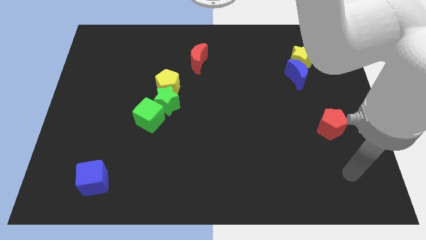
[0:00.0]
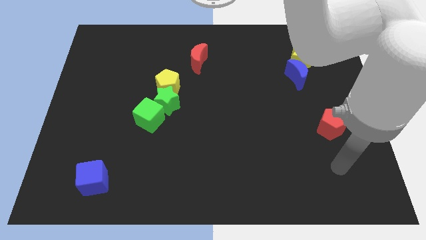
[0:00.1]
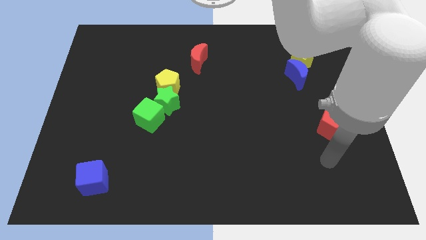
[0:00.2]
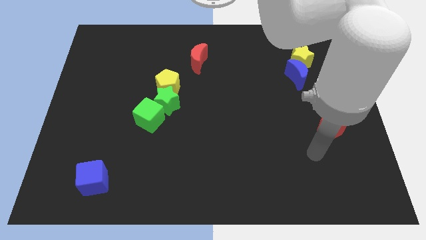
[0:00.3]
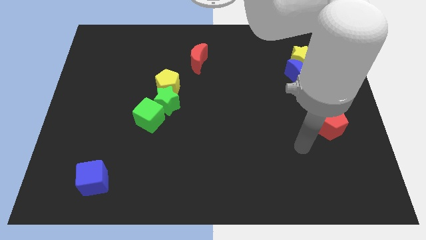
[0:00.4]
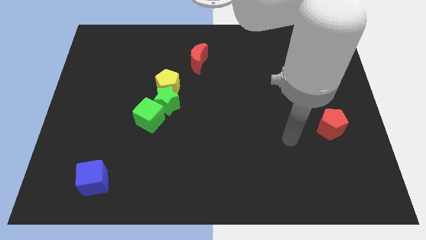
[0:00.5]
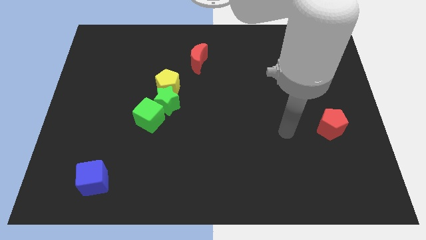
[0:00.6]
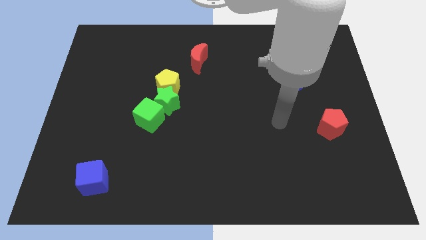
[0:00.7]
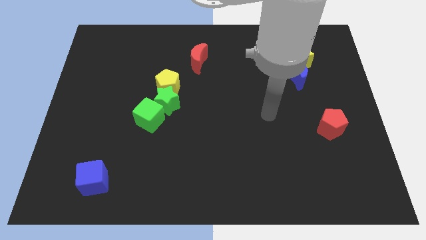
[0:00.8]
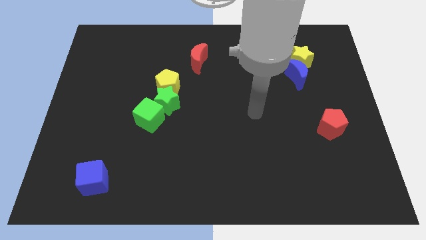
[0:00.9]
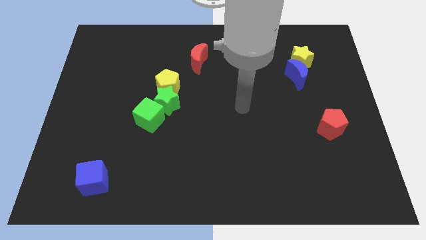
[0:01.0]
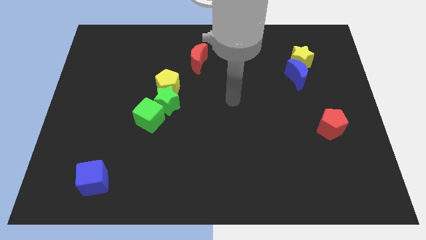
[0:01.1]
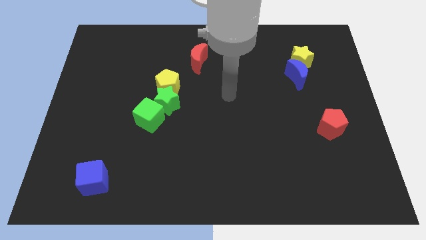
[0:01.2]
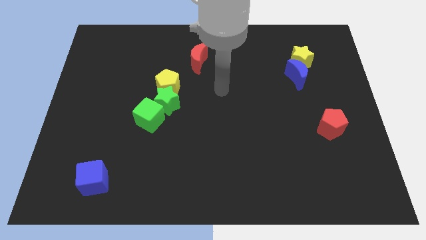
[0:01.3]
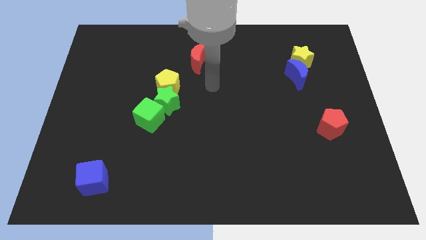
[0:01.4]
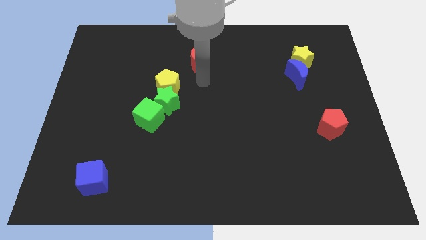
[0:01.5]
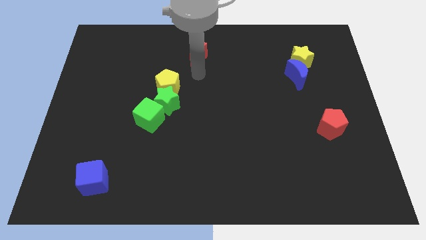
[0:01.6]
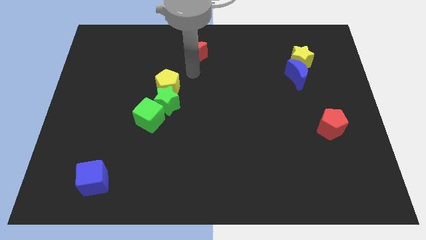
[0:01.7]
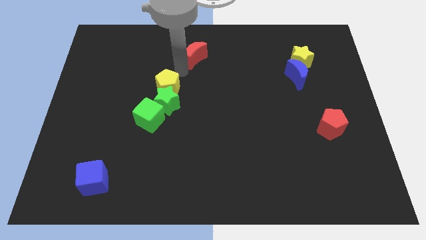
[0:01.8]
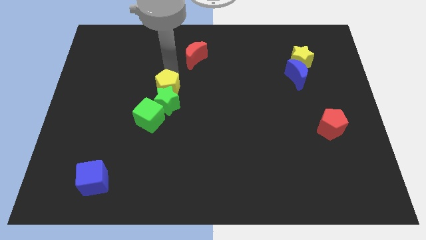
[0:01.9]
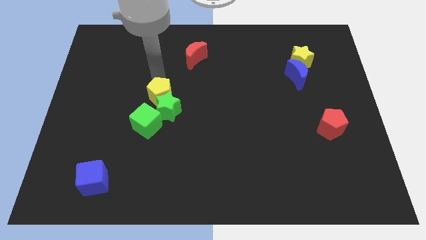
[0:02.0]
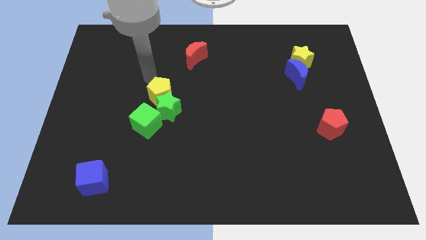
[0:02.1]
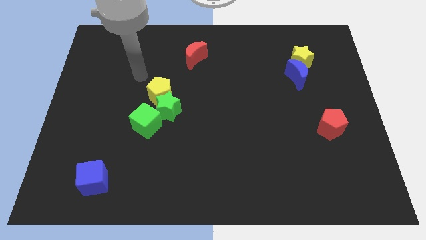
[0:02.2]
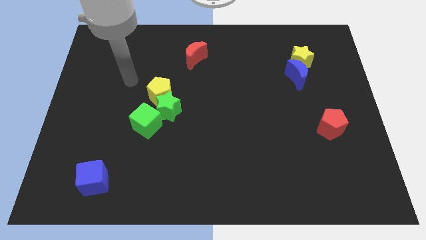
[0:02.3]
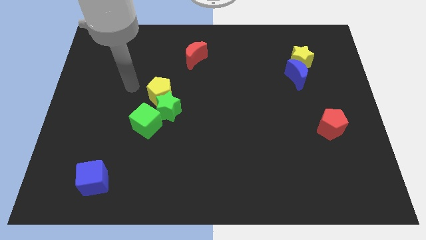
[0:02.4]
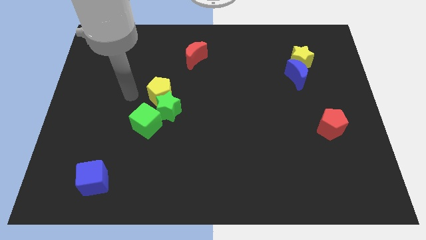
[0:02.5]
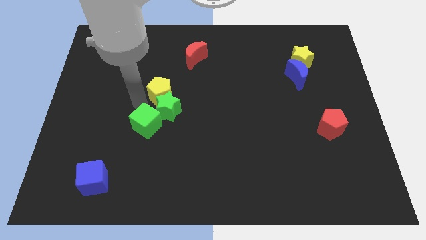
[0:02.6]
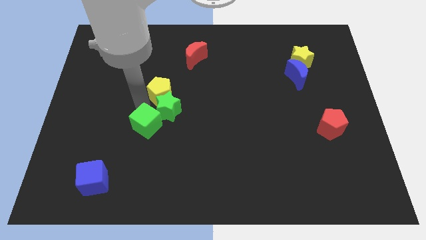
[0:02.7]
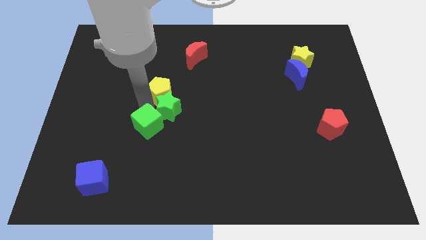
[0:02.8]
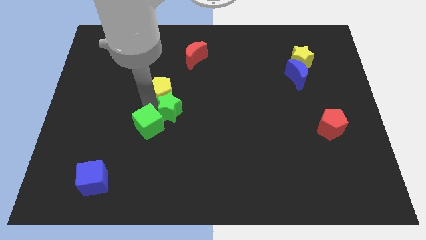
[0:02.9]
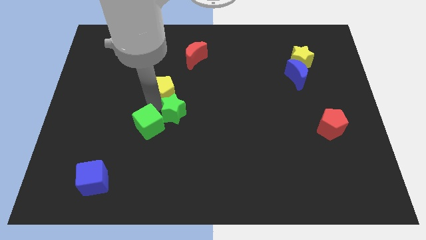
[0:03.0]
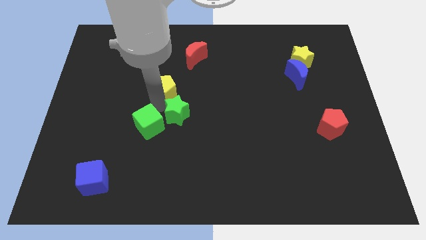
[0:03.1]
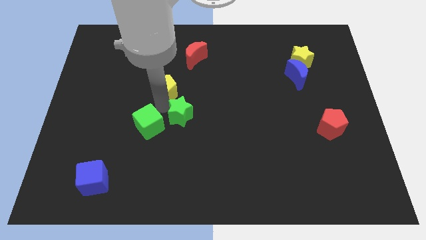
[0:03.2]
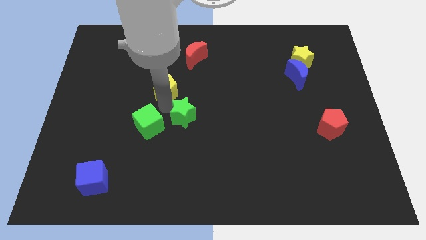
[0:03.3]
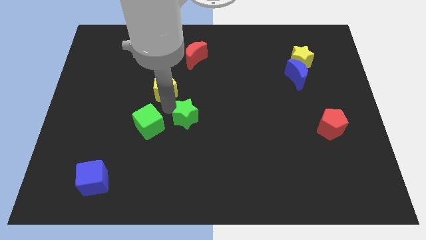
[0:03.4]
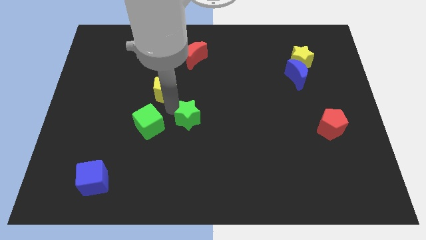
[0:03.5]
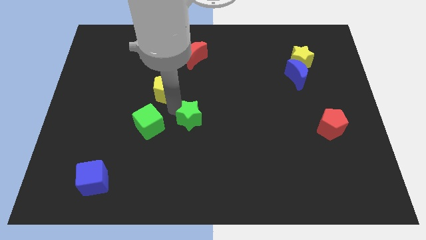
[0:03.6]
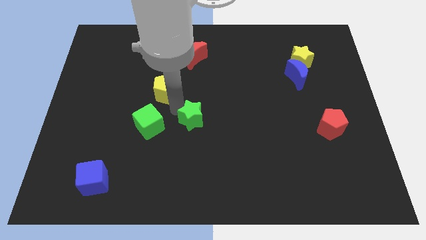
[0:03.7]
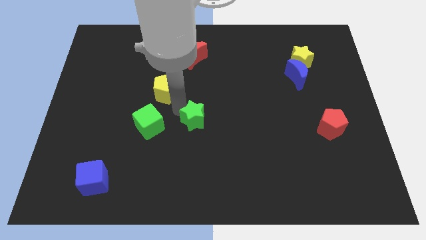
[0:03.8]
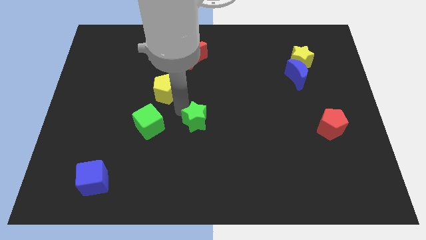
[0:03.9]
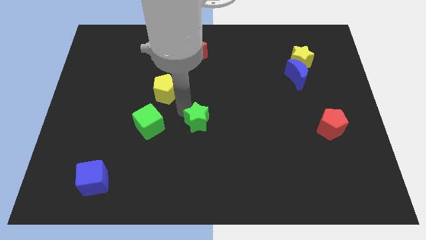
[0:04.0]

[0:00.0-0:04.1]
pull the green star apart from the green cube and yellow pentagon

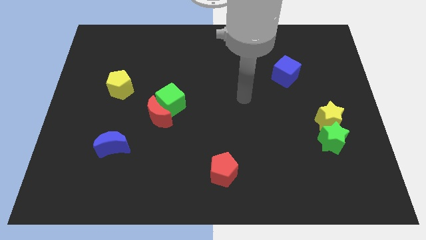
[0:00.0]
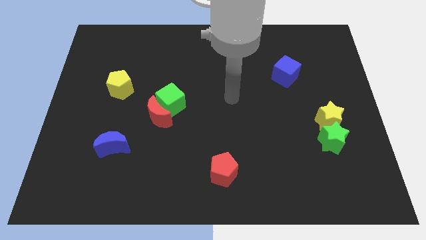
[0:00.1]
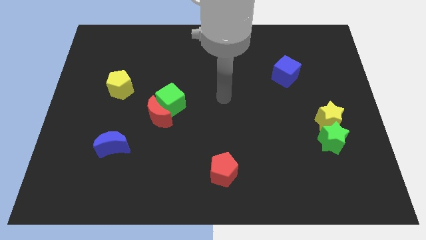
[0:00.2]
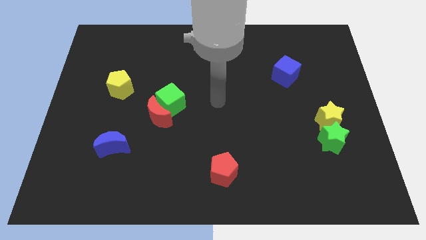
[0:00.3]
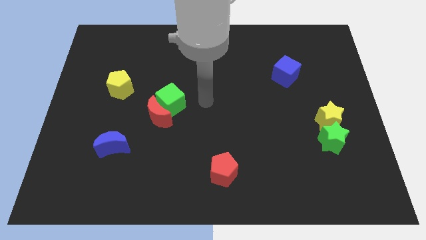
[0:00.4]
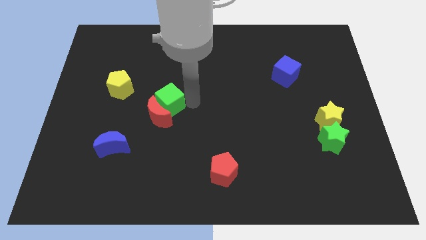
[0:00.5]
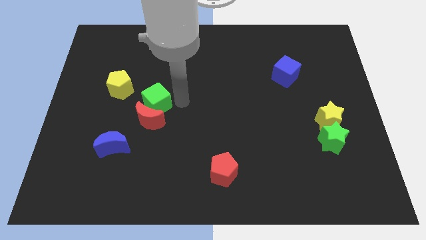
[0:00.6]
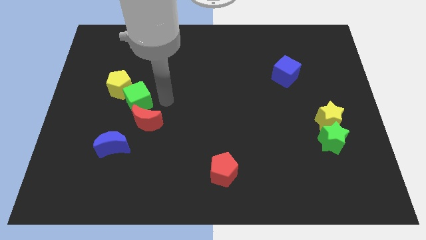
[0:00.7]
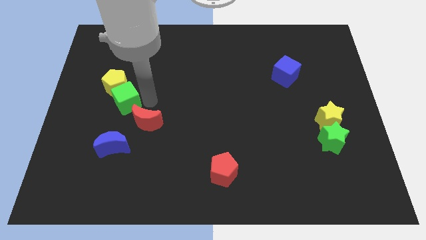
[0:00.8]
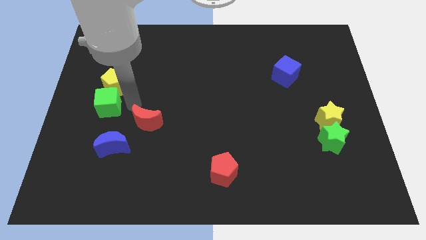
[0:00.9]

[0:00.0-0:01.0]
pull the red moon apart from the green cube

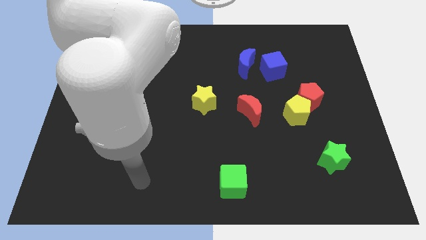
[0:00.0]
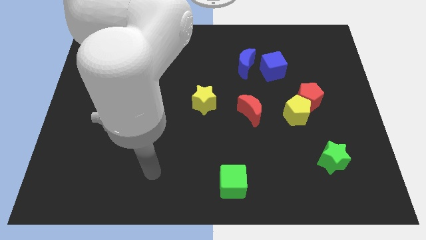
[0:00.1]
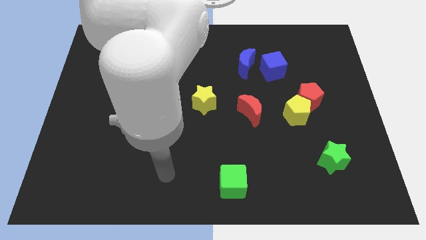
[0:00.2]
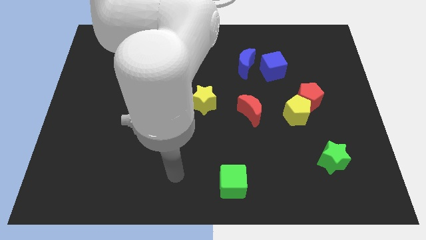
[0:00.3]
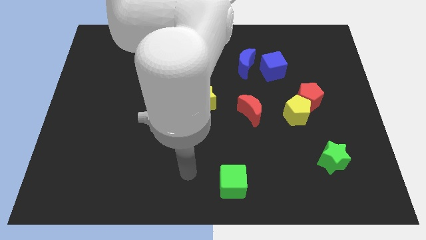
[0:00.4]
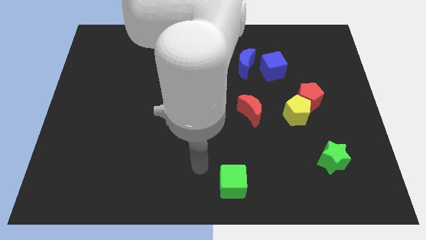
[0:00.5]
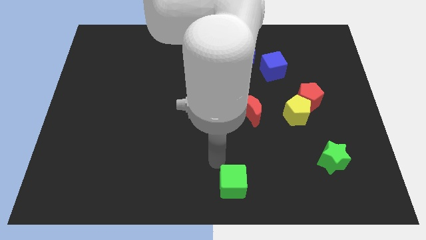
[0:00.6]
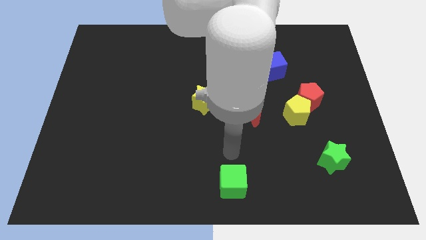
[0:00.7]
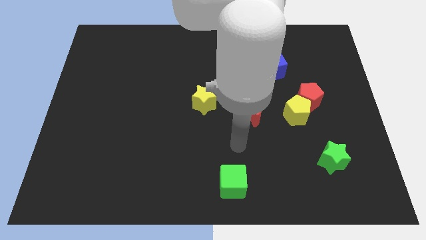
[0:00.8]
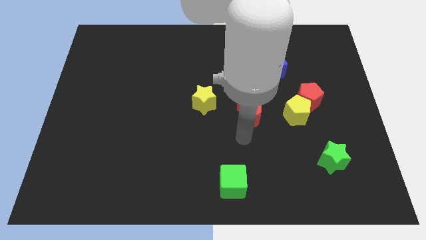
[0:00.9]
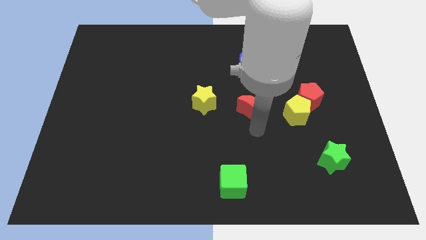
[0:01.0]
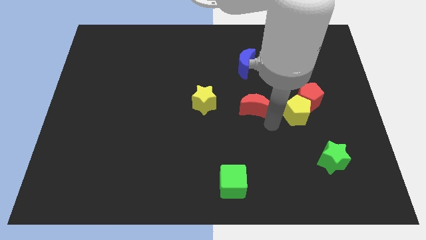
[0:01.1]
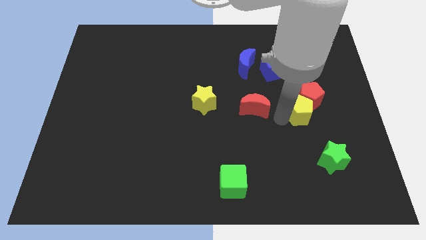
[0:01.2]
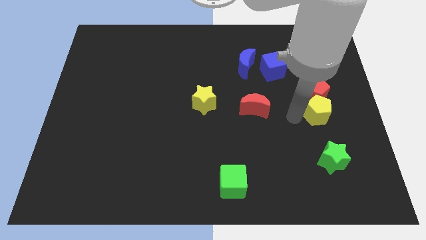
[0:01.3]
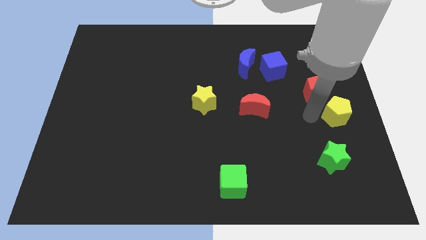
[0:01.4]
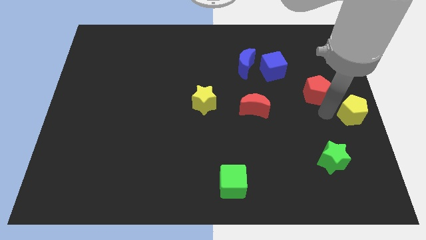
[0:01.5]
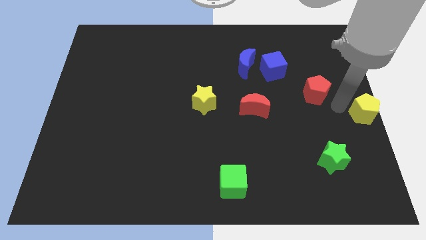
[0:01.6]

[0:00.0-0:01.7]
pull the red pentagon apart from the yellow pentagon

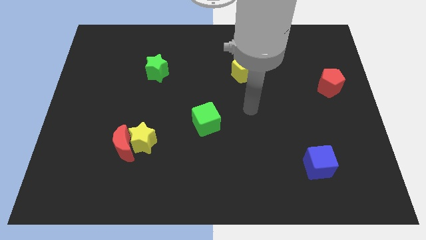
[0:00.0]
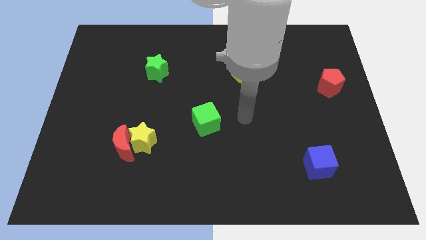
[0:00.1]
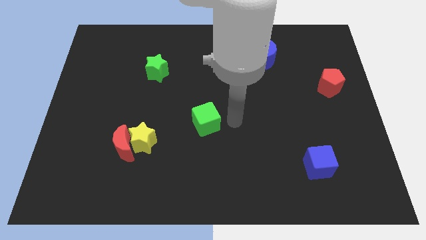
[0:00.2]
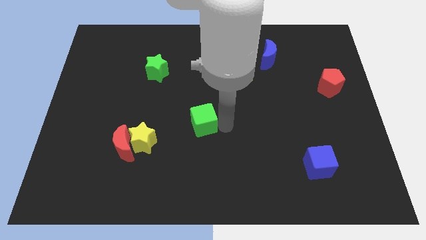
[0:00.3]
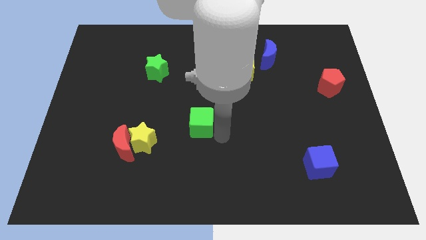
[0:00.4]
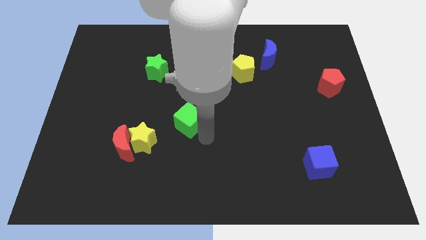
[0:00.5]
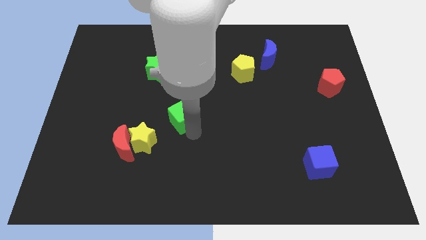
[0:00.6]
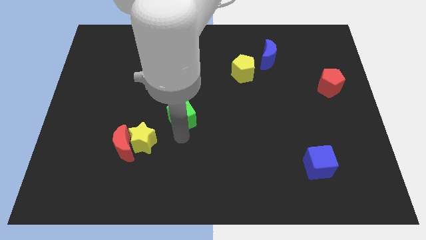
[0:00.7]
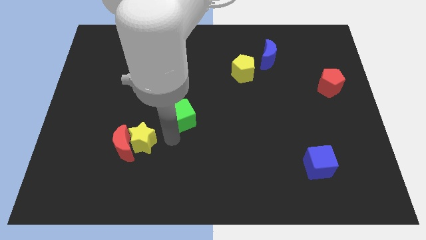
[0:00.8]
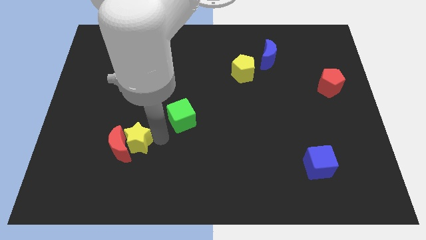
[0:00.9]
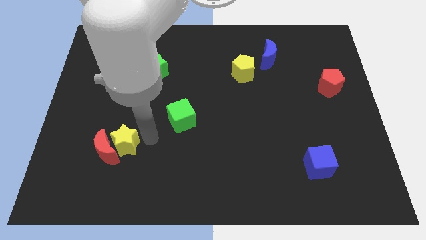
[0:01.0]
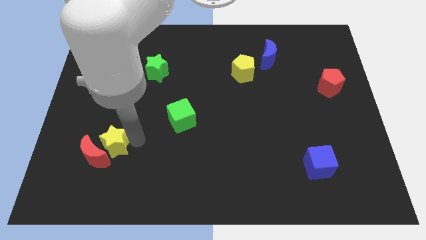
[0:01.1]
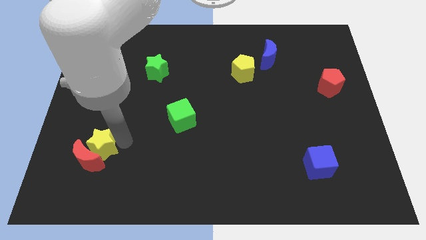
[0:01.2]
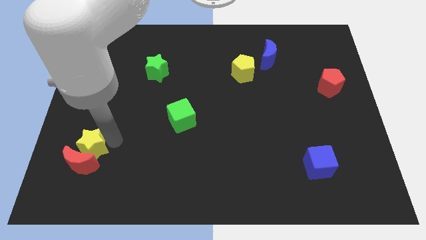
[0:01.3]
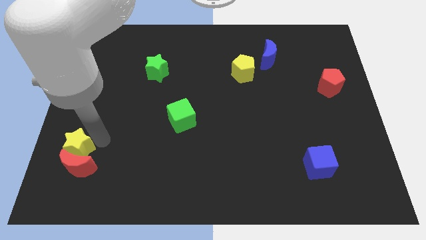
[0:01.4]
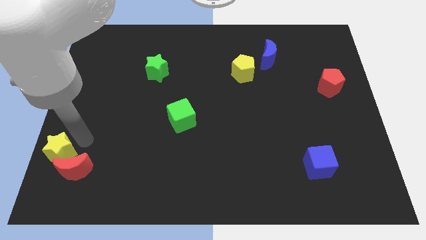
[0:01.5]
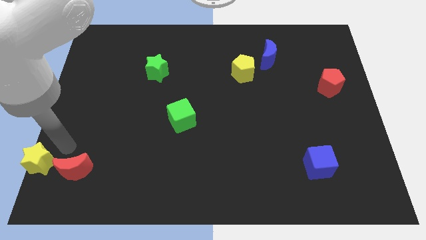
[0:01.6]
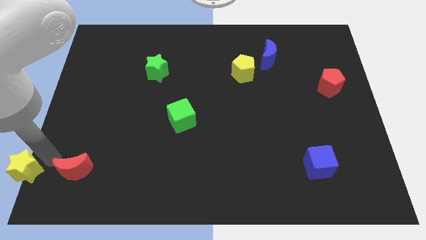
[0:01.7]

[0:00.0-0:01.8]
separate the red moon from the yellow star

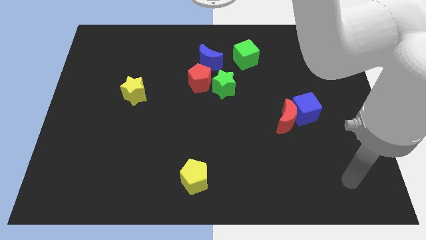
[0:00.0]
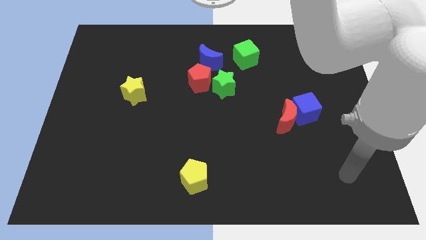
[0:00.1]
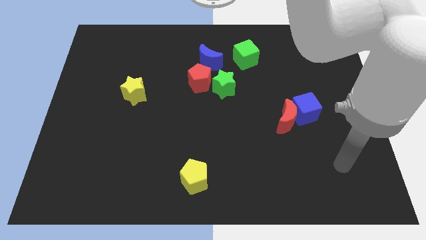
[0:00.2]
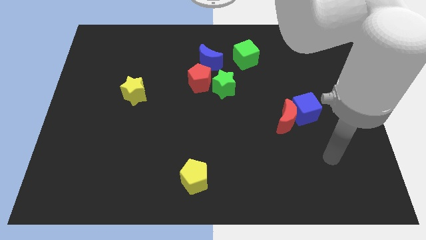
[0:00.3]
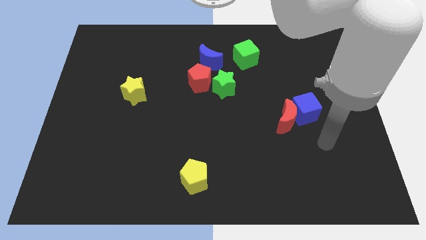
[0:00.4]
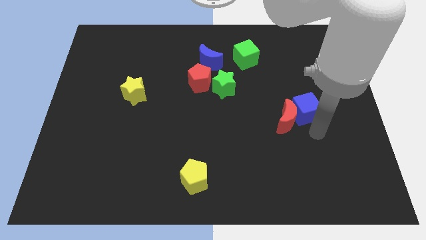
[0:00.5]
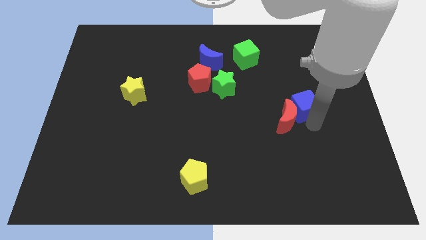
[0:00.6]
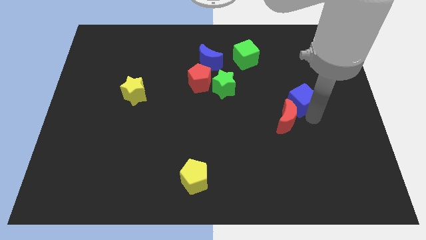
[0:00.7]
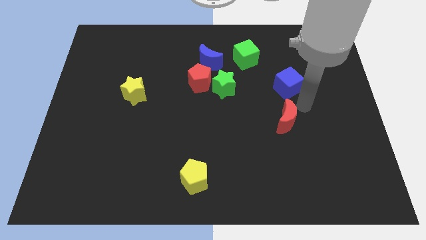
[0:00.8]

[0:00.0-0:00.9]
move the red moon away from the blue cube
